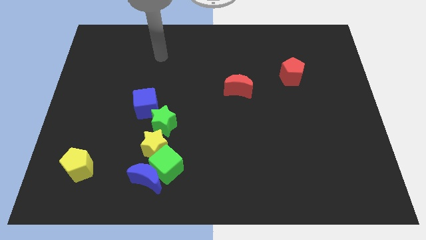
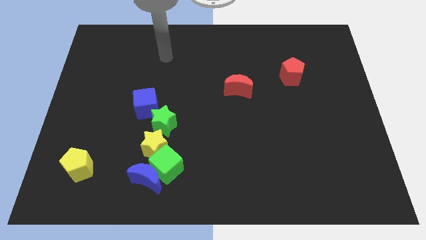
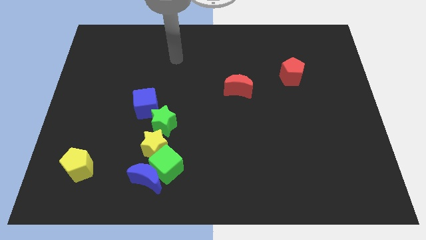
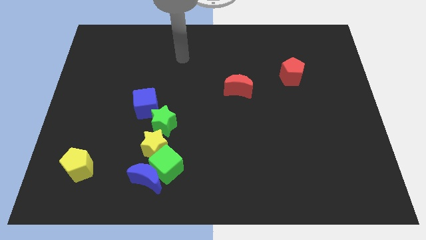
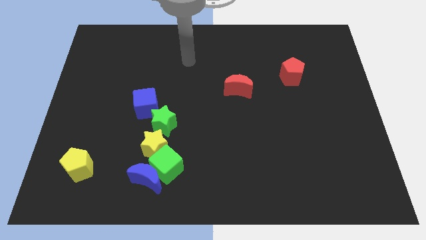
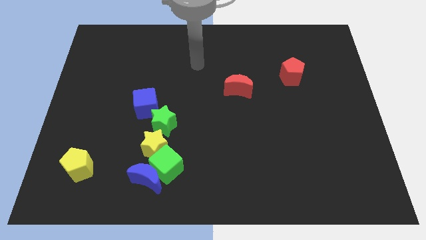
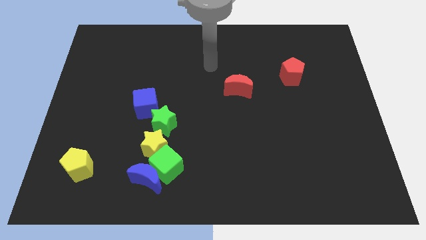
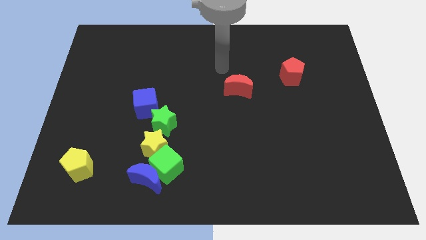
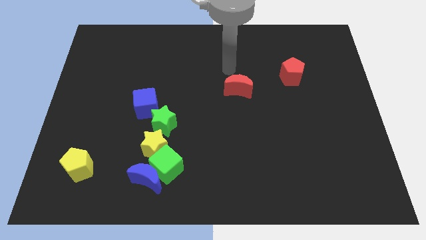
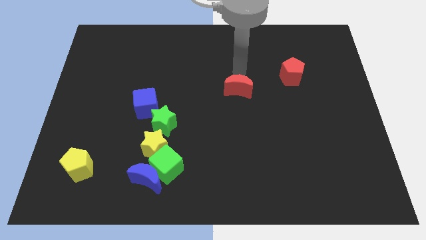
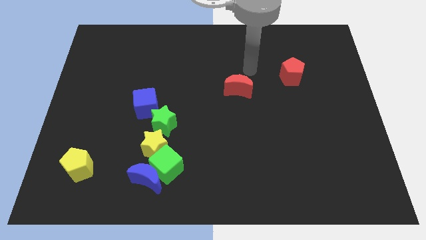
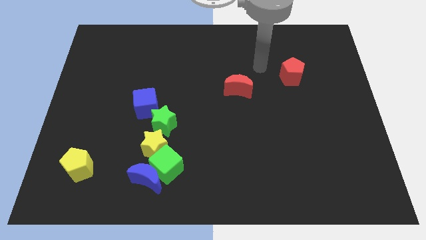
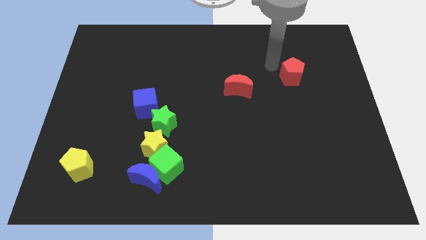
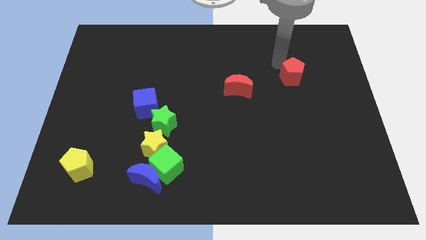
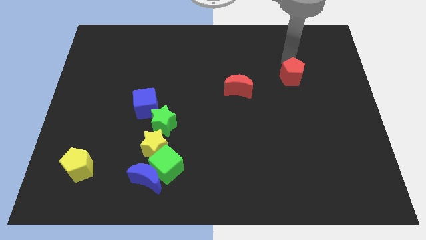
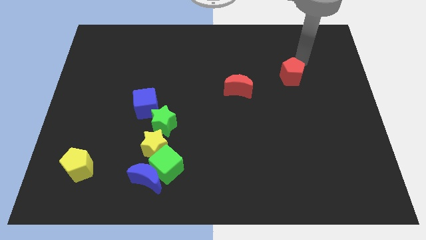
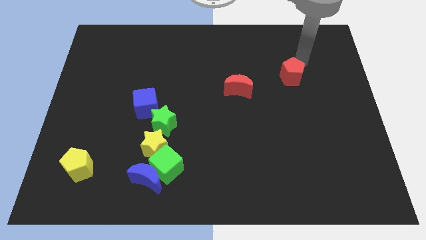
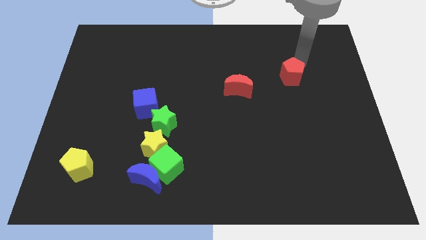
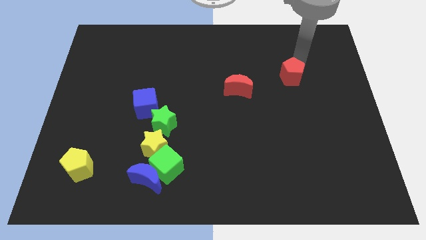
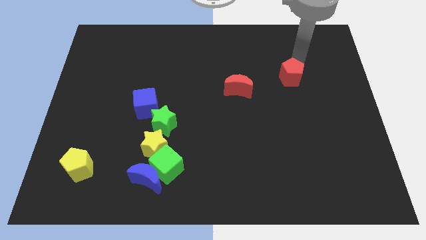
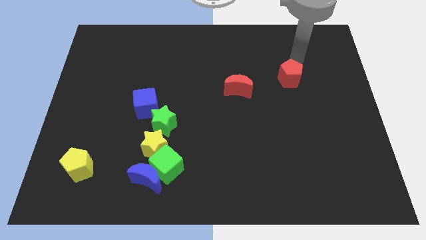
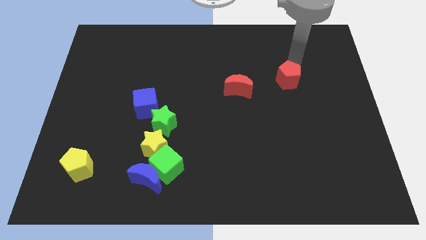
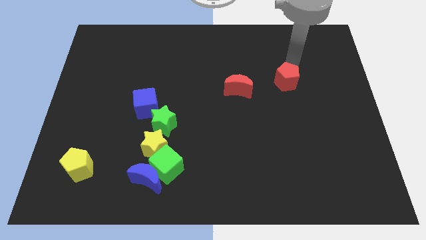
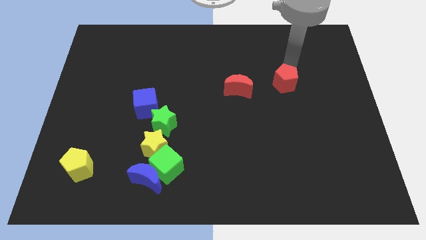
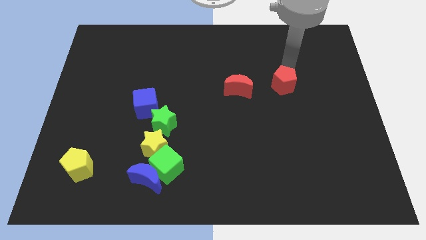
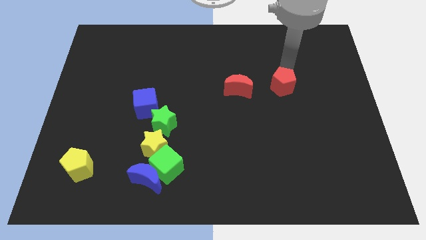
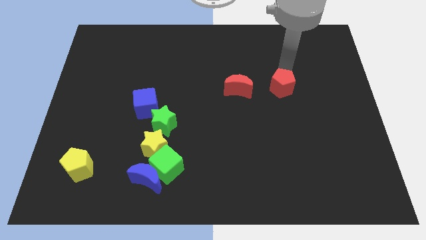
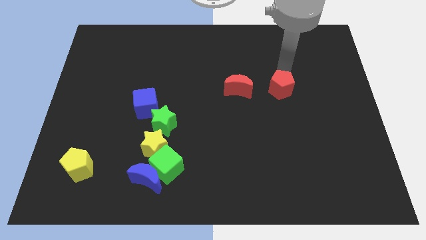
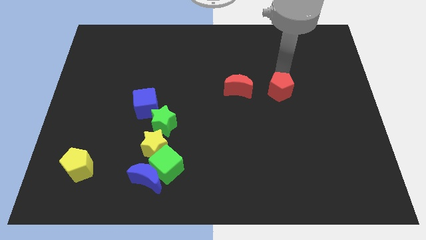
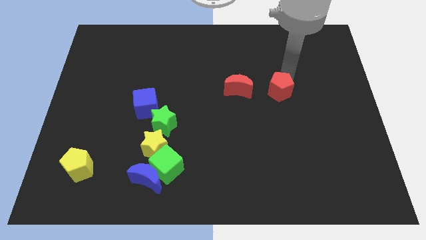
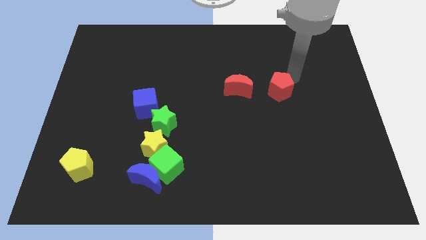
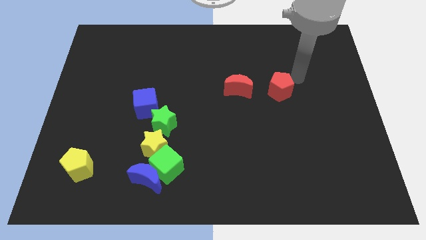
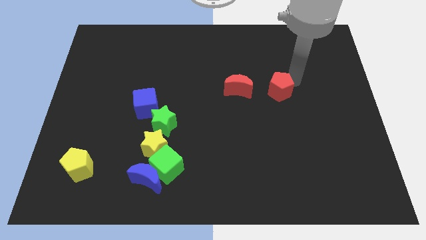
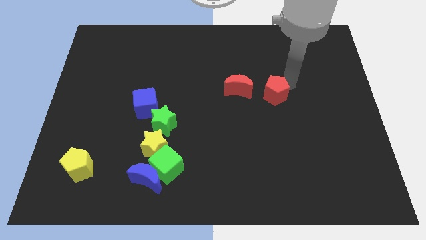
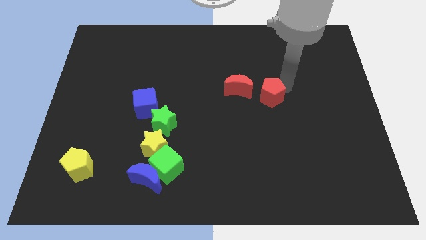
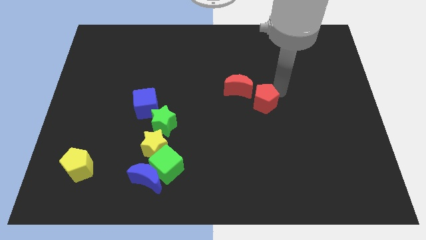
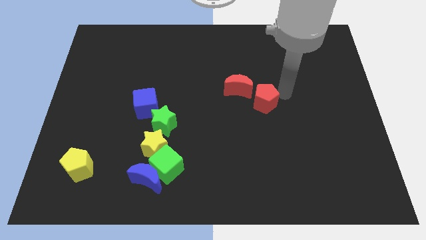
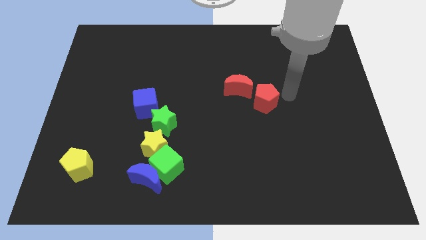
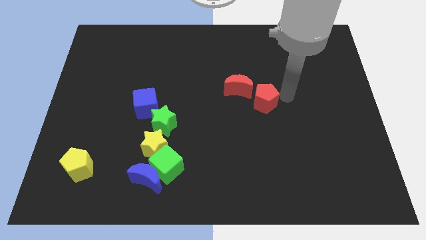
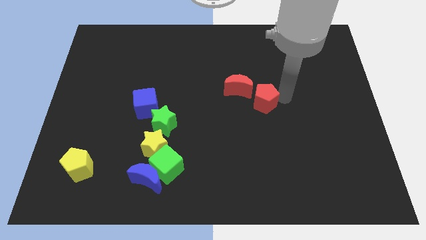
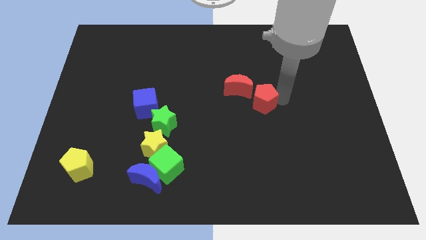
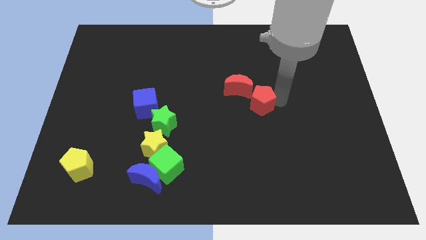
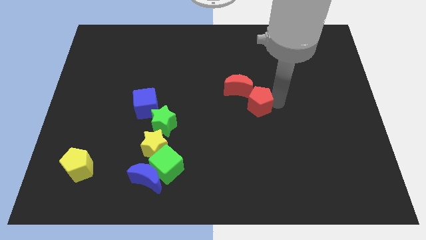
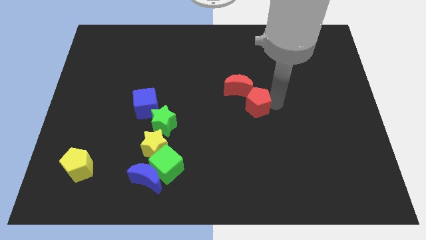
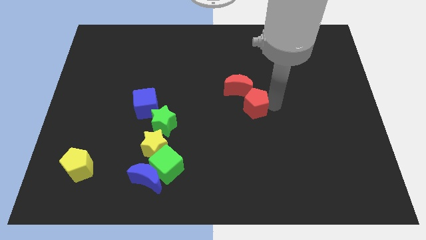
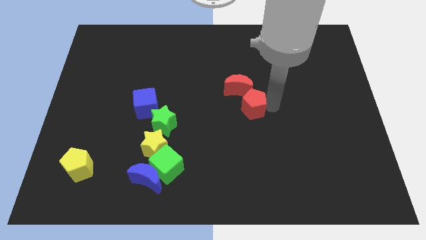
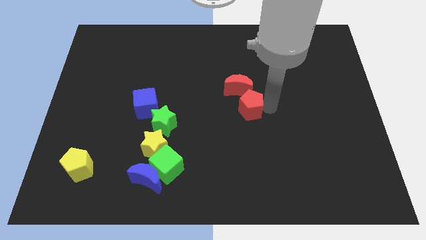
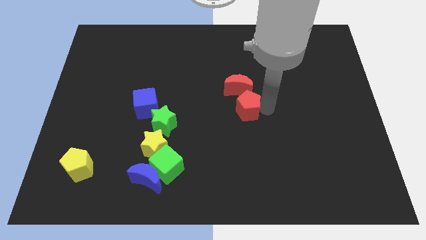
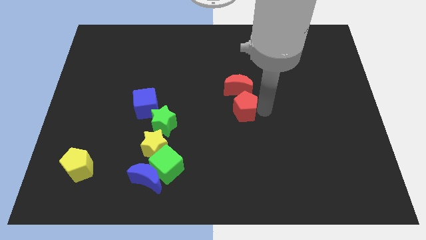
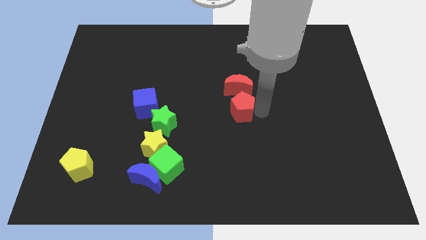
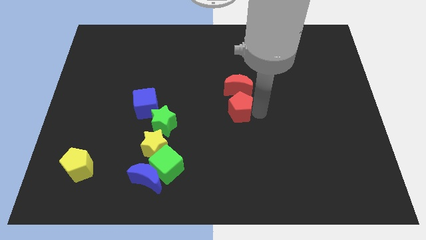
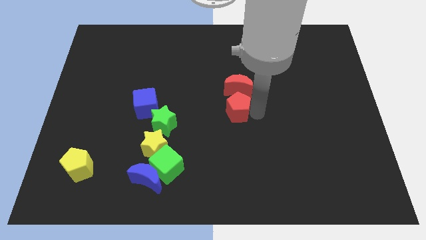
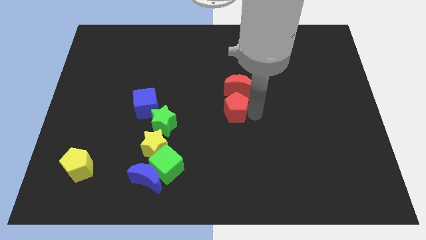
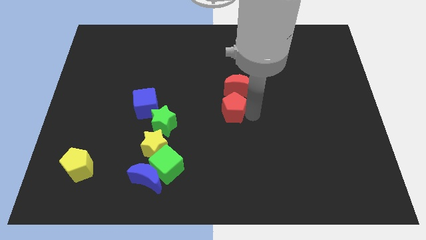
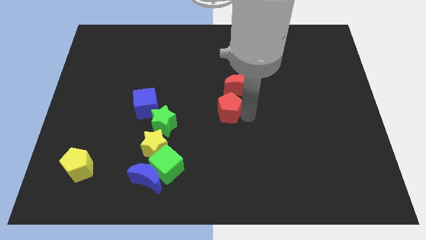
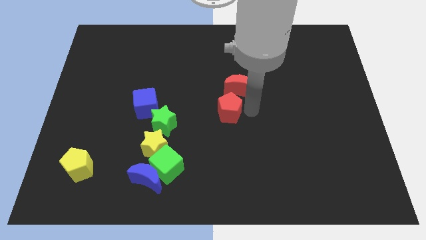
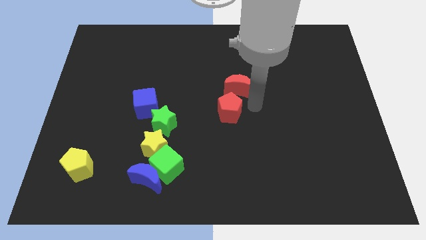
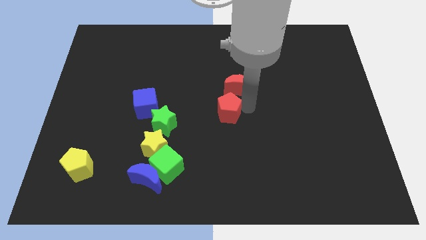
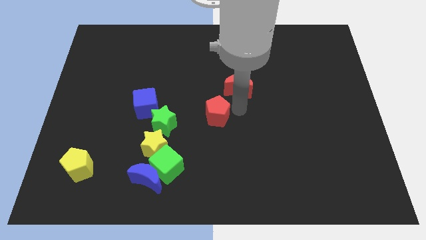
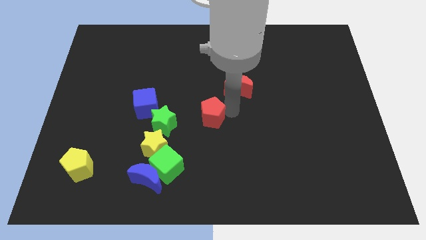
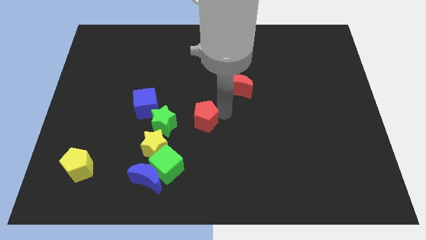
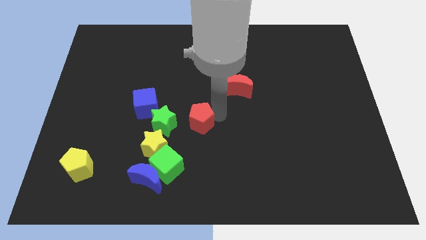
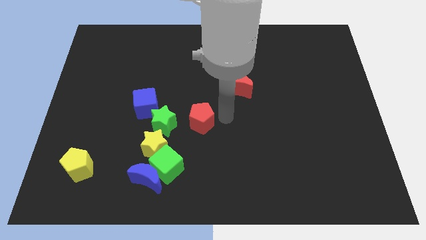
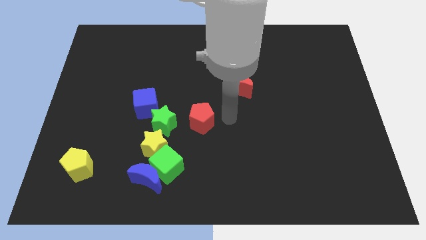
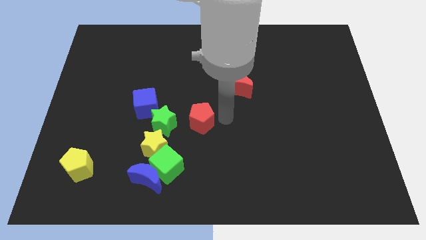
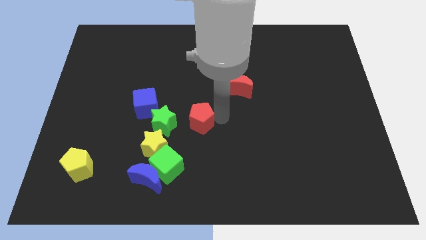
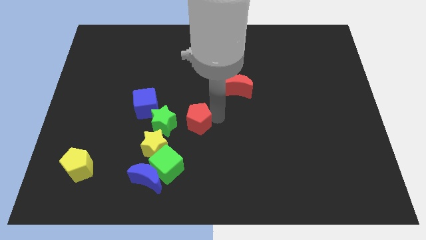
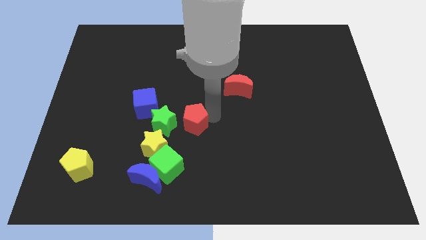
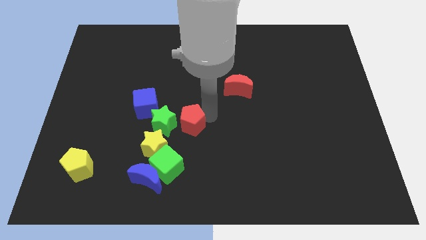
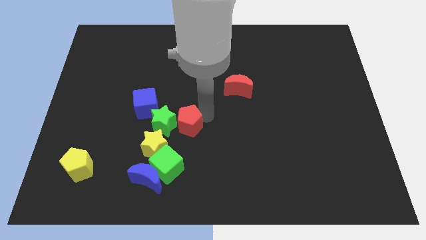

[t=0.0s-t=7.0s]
move the red pentagon close to the green star

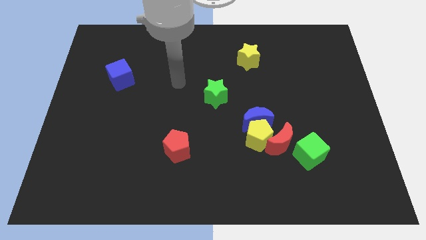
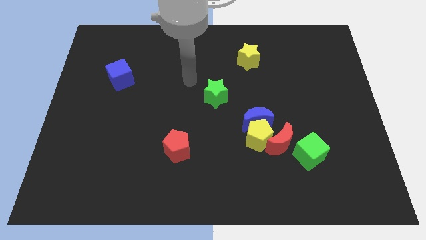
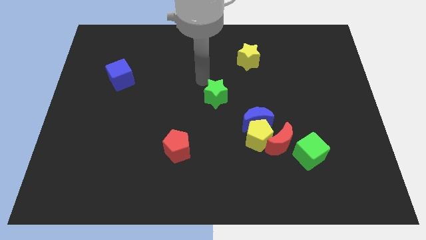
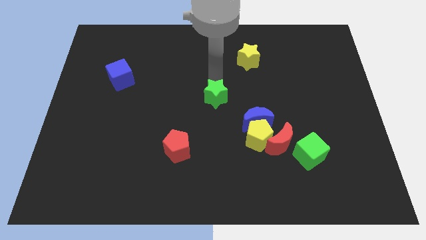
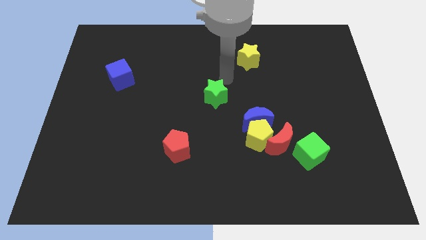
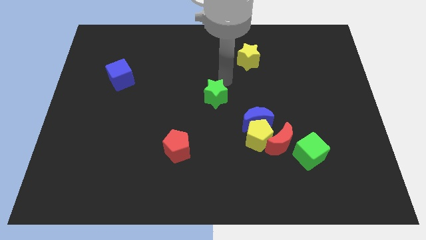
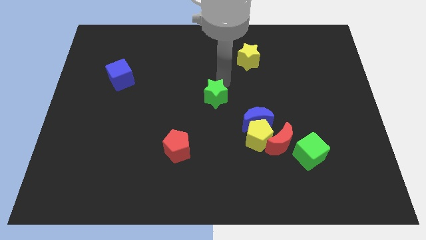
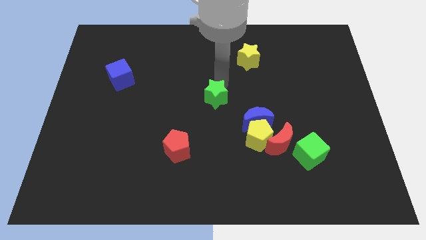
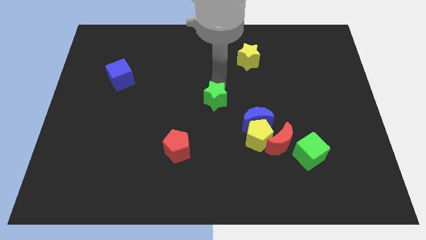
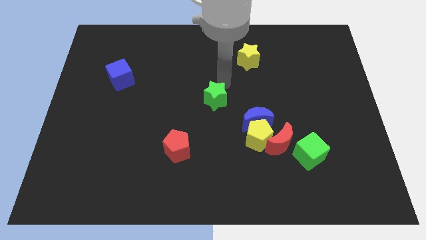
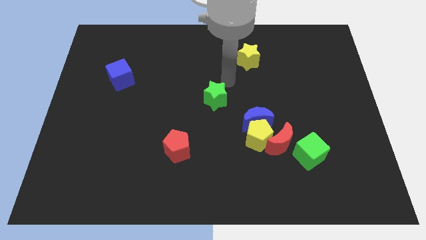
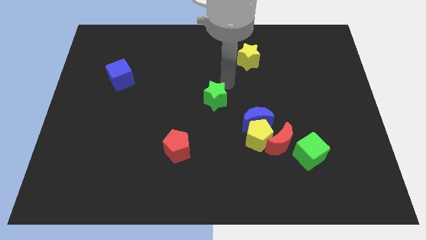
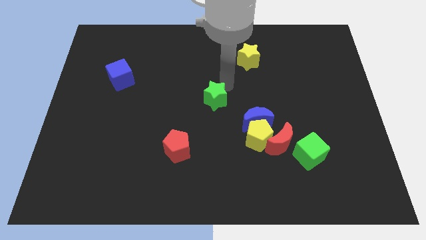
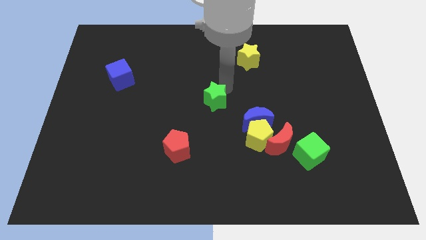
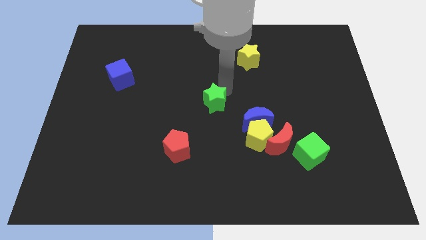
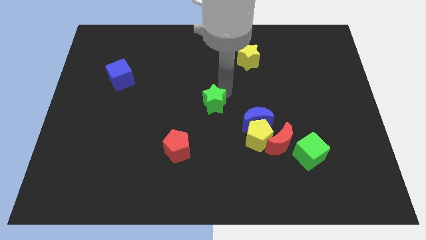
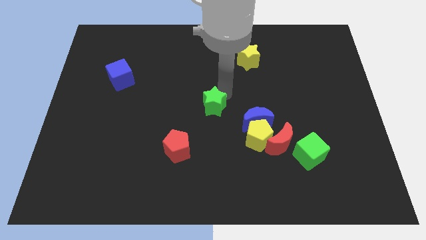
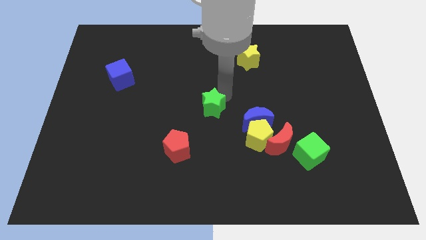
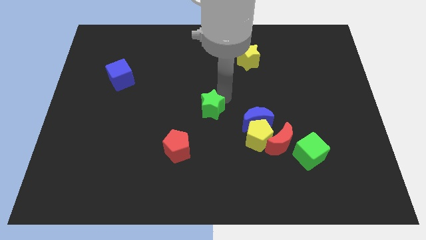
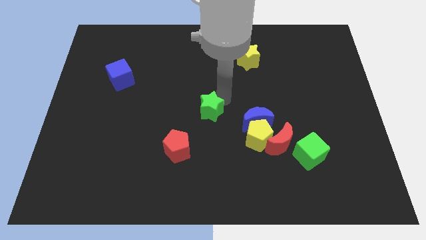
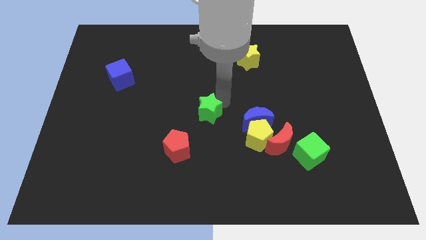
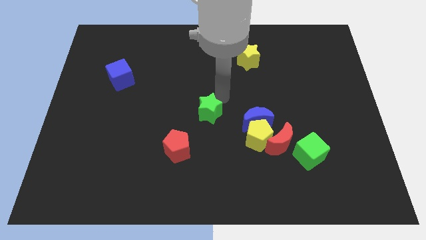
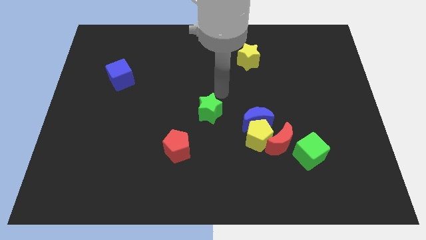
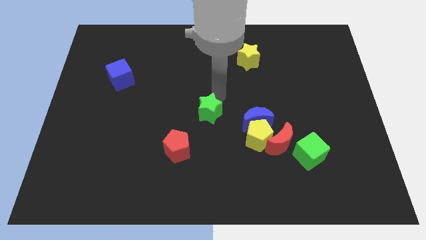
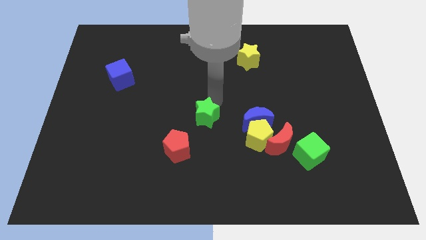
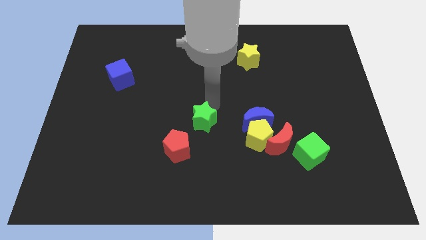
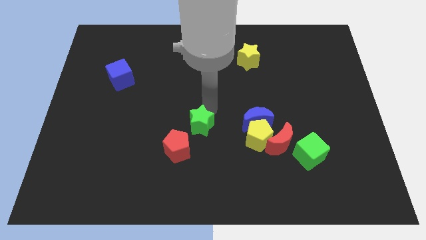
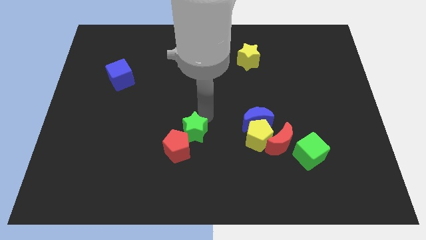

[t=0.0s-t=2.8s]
push the green star next to the red pentagon
